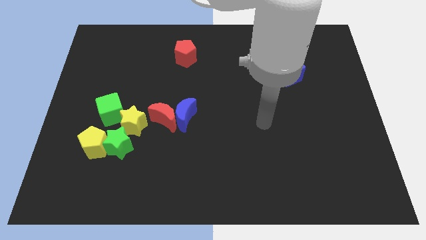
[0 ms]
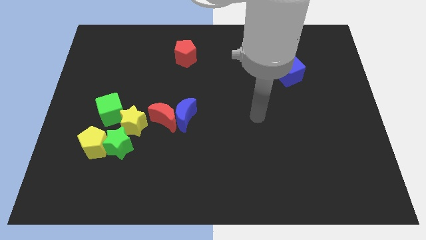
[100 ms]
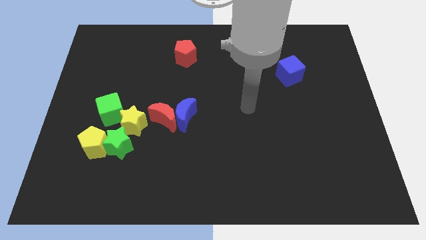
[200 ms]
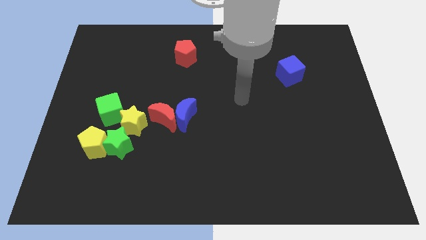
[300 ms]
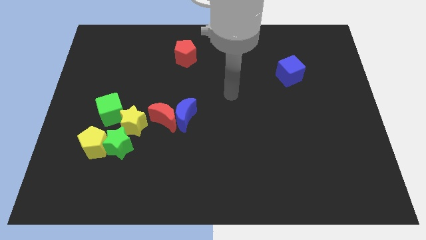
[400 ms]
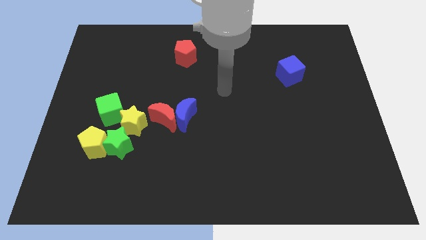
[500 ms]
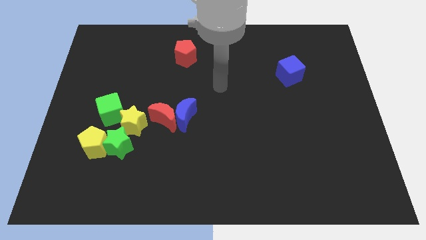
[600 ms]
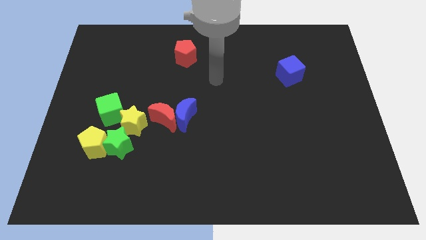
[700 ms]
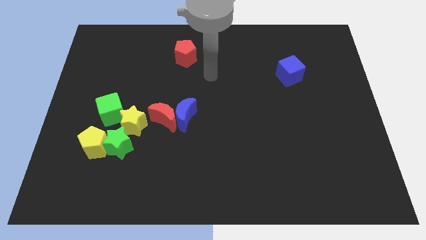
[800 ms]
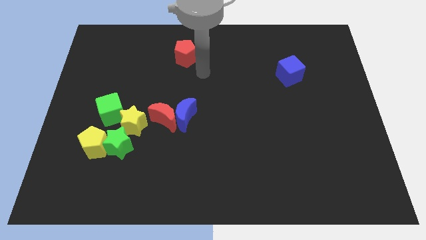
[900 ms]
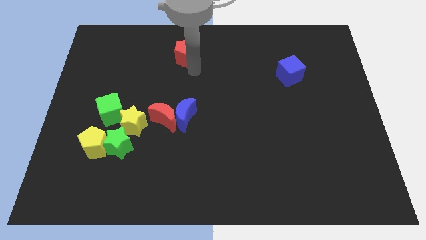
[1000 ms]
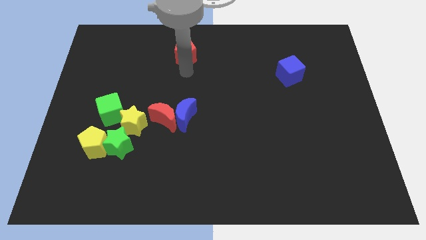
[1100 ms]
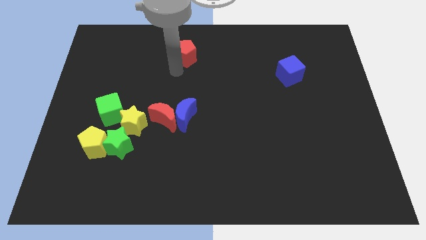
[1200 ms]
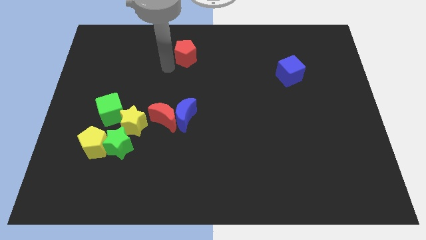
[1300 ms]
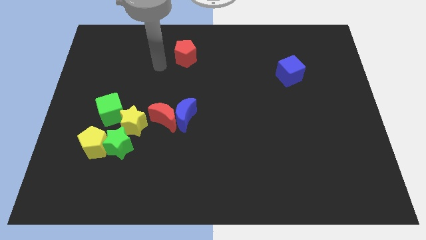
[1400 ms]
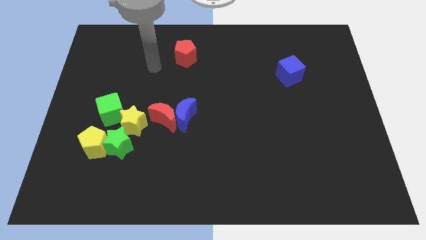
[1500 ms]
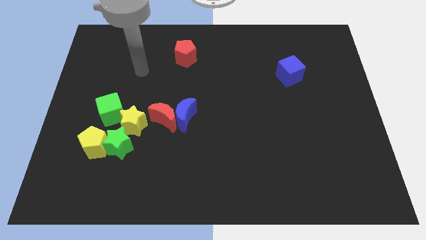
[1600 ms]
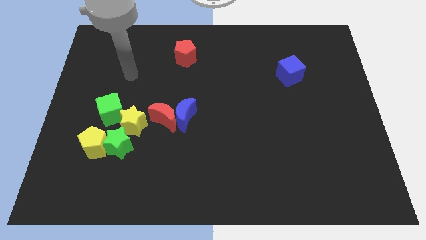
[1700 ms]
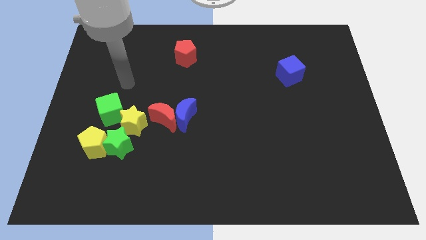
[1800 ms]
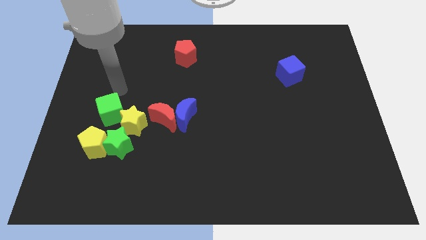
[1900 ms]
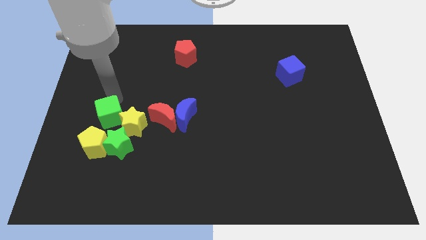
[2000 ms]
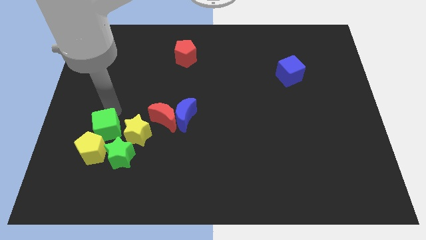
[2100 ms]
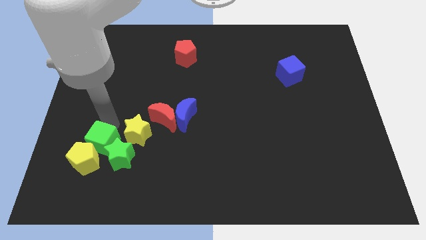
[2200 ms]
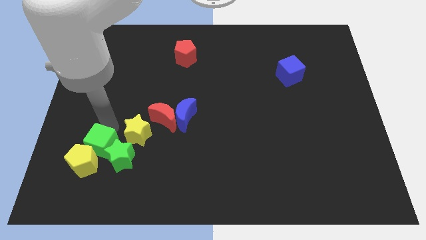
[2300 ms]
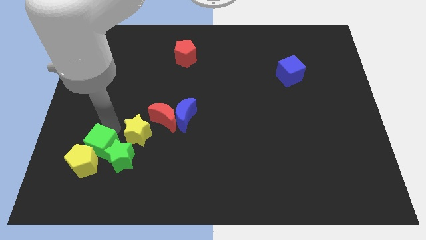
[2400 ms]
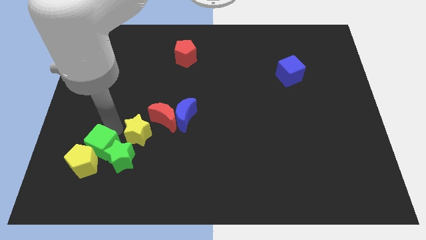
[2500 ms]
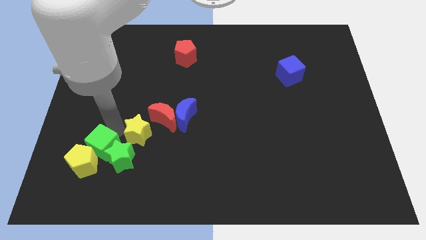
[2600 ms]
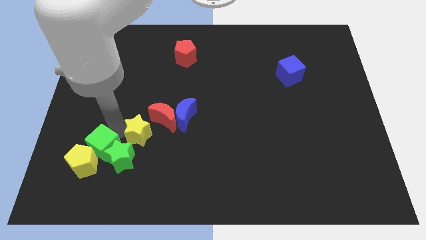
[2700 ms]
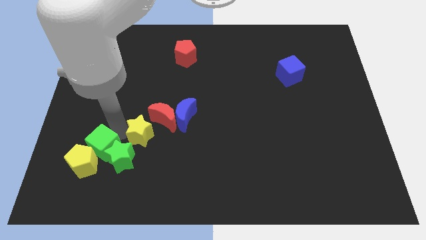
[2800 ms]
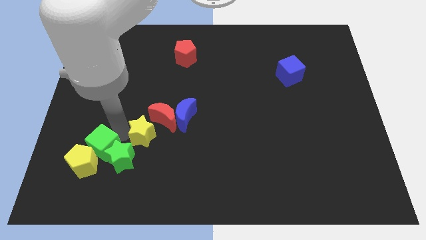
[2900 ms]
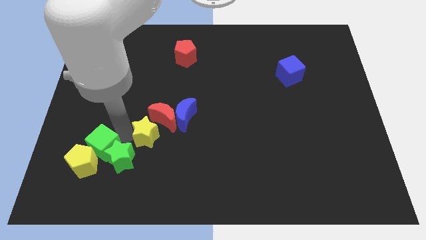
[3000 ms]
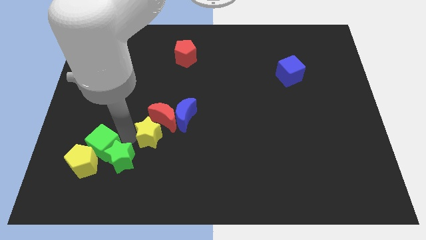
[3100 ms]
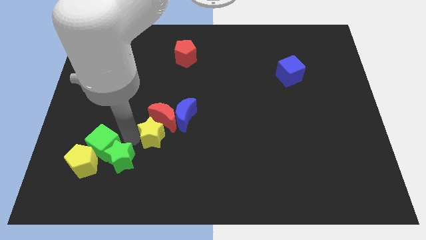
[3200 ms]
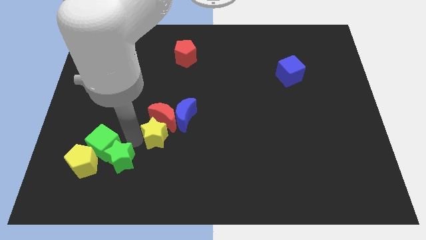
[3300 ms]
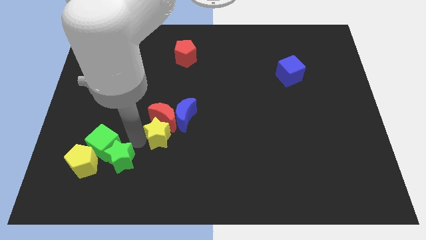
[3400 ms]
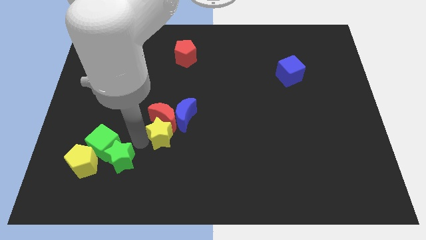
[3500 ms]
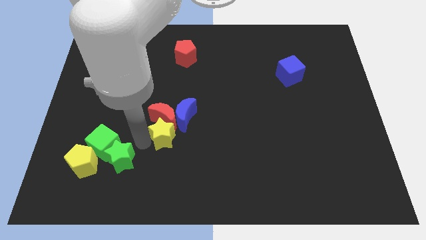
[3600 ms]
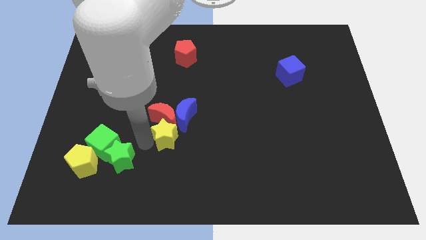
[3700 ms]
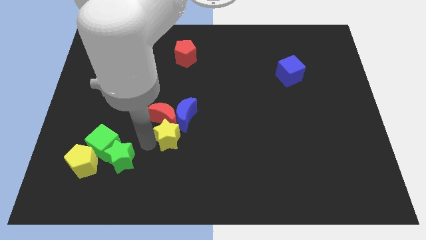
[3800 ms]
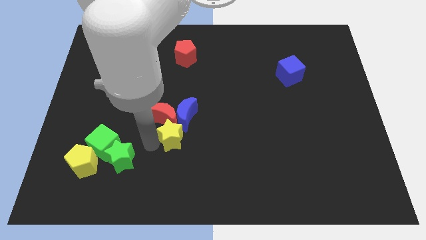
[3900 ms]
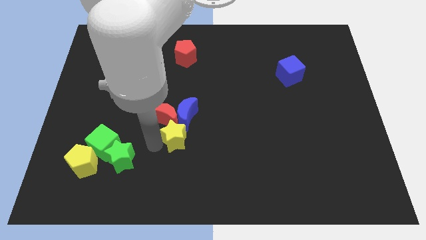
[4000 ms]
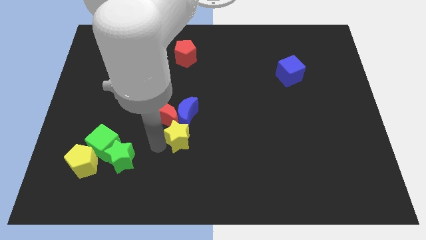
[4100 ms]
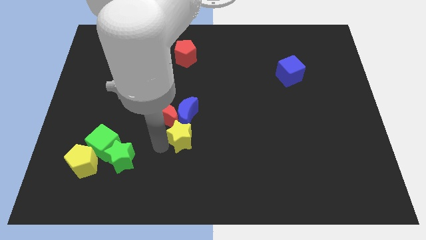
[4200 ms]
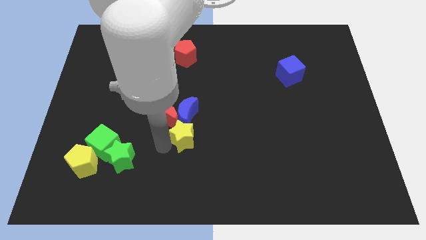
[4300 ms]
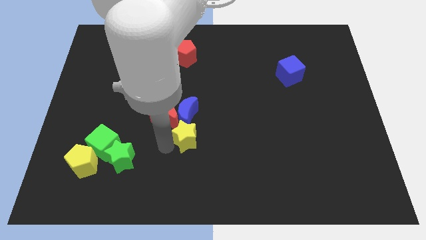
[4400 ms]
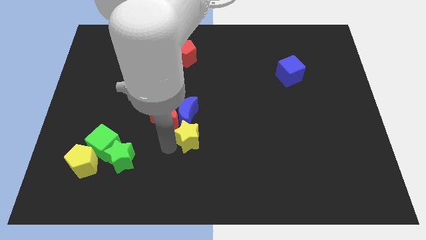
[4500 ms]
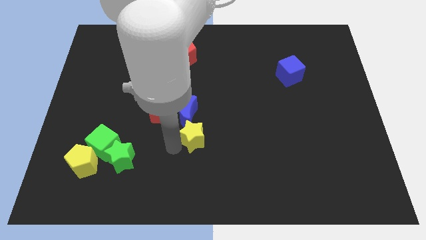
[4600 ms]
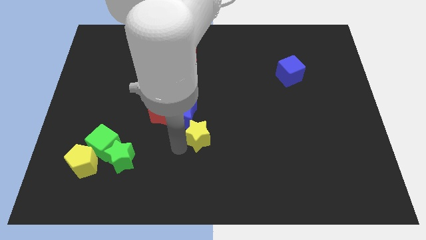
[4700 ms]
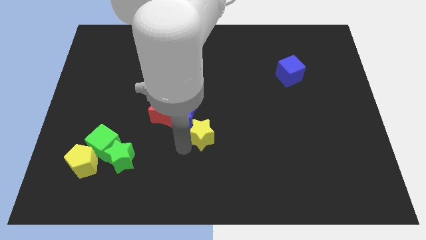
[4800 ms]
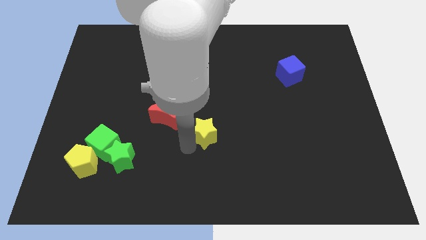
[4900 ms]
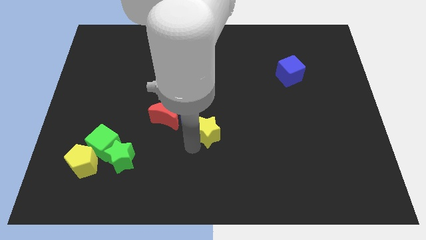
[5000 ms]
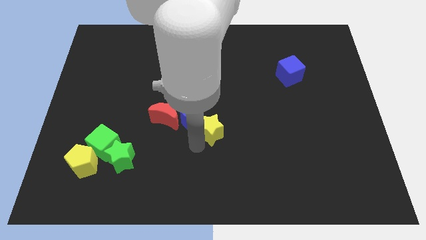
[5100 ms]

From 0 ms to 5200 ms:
slide the yellow star right of the blue moon

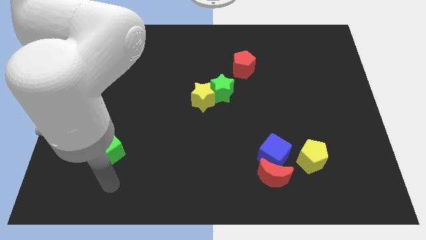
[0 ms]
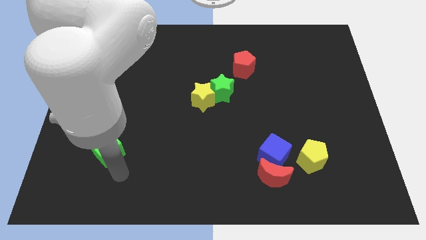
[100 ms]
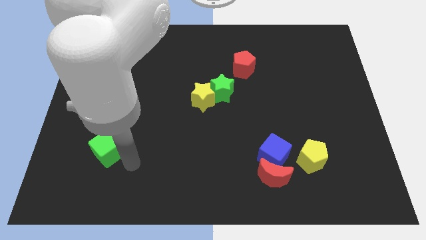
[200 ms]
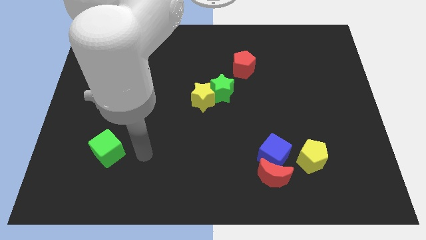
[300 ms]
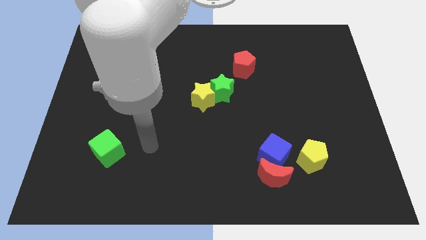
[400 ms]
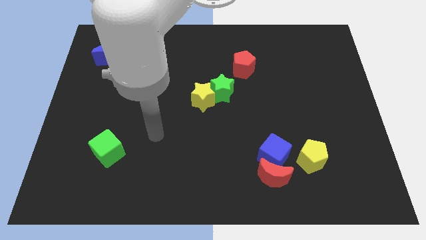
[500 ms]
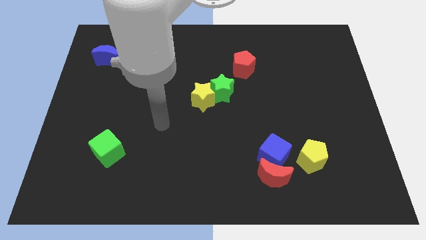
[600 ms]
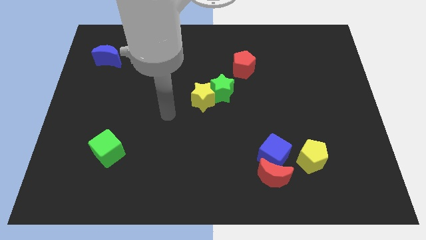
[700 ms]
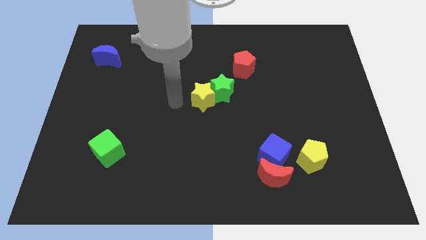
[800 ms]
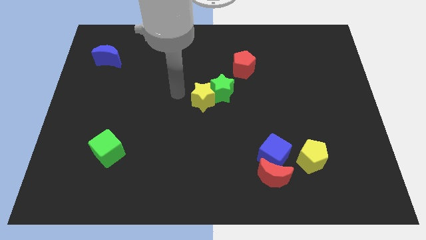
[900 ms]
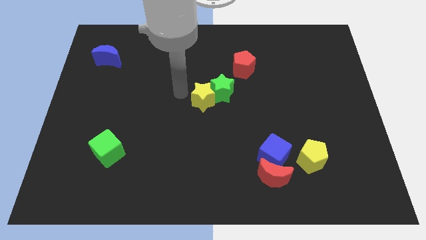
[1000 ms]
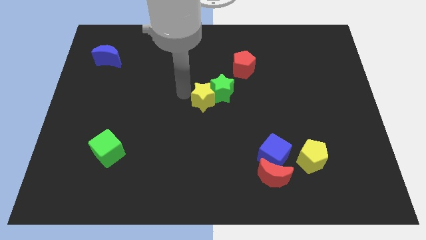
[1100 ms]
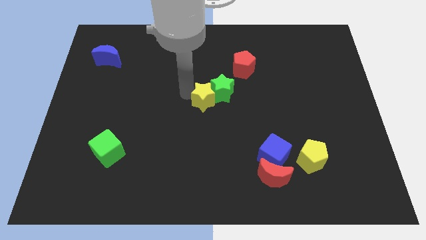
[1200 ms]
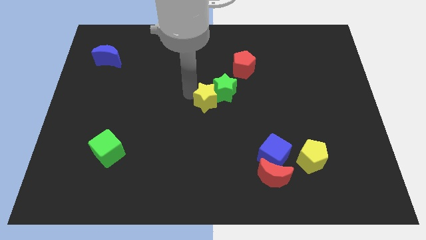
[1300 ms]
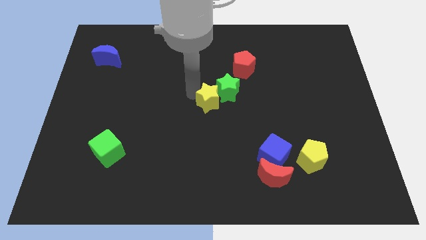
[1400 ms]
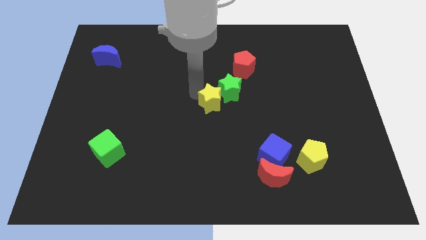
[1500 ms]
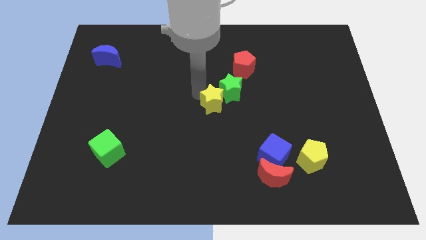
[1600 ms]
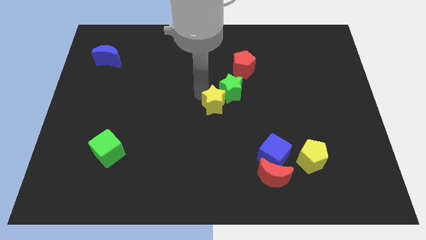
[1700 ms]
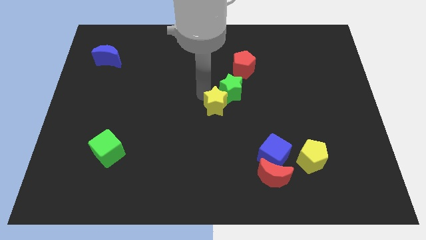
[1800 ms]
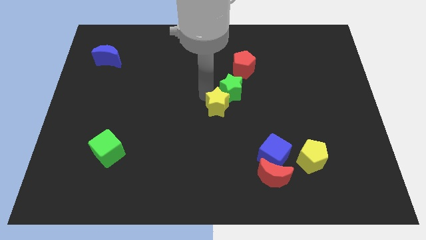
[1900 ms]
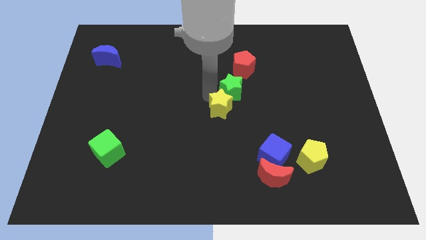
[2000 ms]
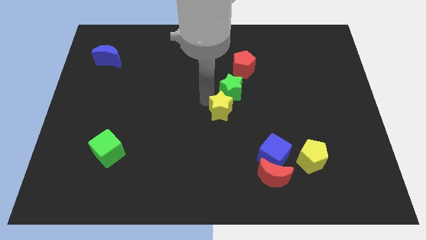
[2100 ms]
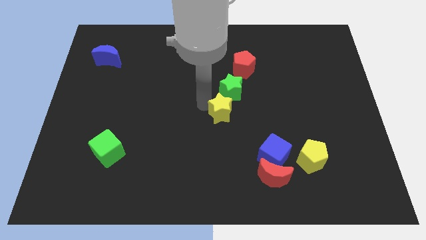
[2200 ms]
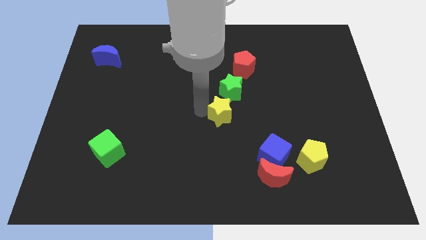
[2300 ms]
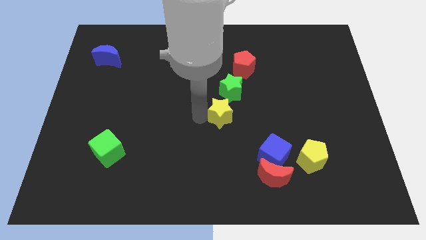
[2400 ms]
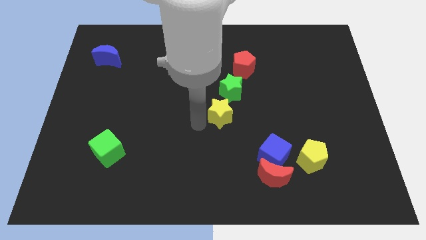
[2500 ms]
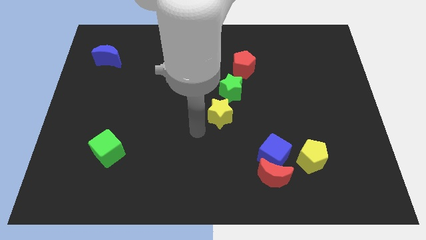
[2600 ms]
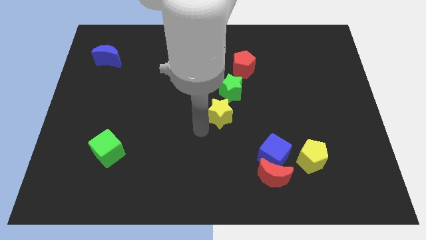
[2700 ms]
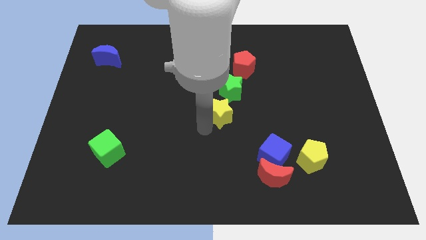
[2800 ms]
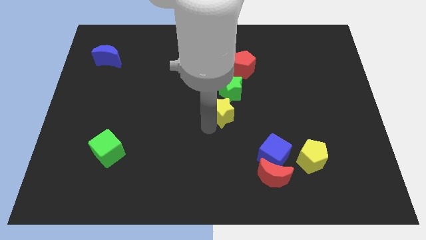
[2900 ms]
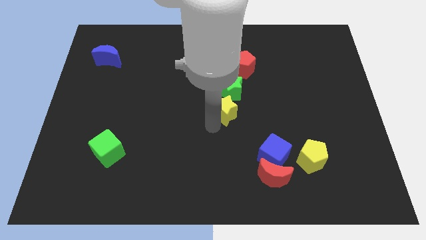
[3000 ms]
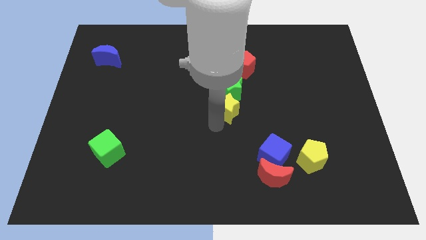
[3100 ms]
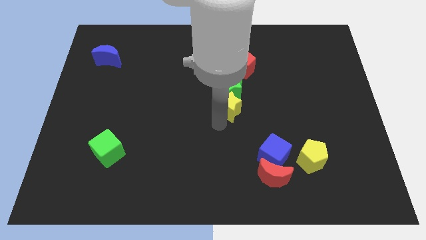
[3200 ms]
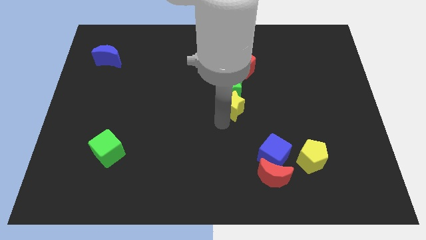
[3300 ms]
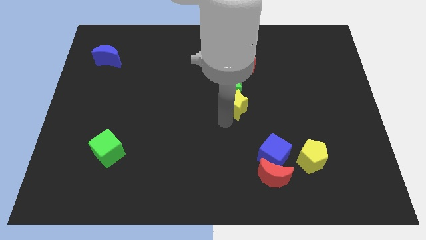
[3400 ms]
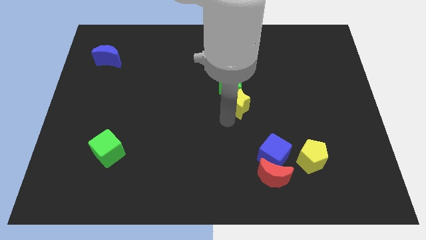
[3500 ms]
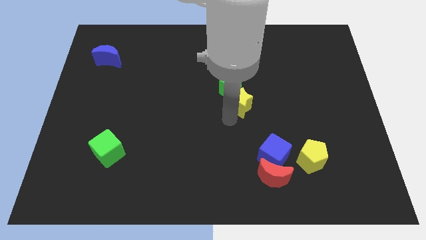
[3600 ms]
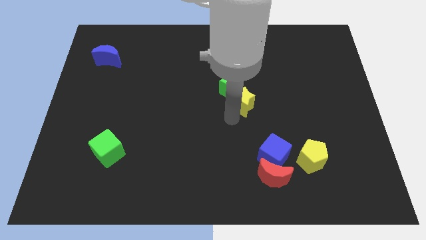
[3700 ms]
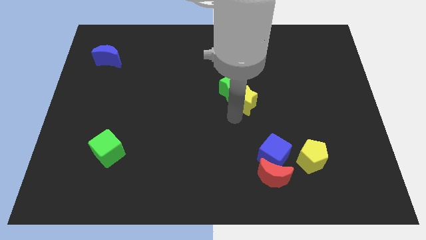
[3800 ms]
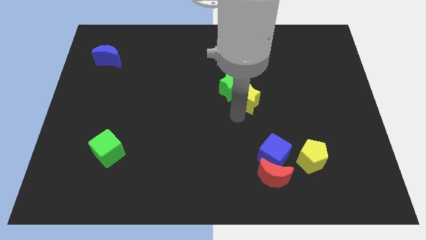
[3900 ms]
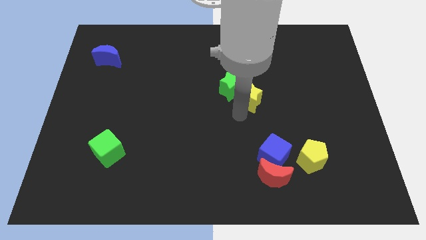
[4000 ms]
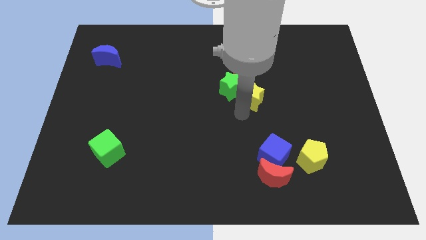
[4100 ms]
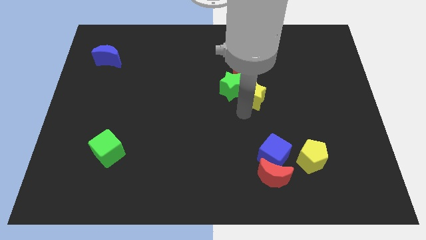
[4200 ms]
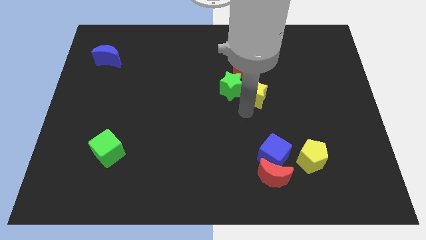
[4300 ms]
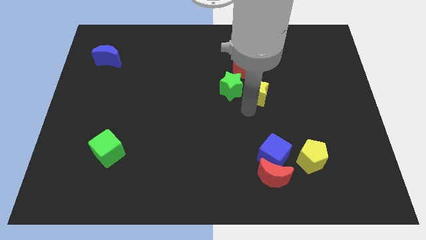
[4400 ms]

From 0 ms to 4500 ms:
move the yellow star diagonally down and to the right of the red pentagon
